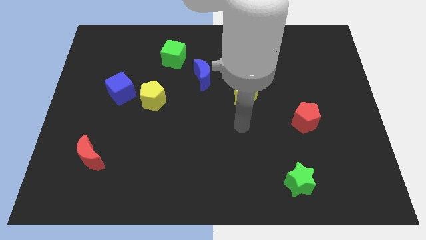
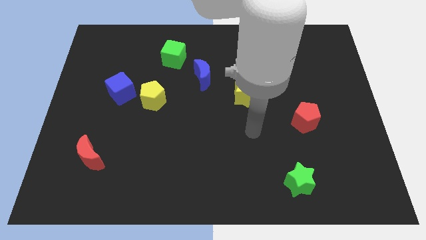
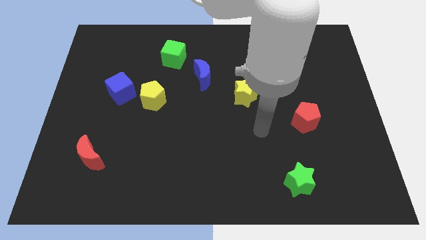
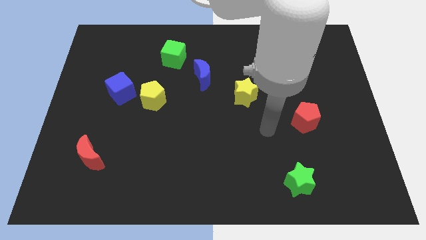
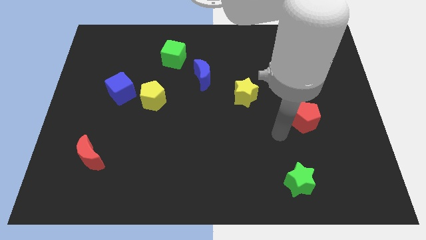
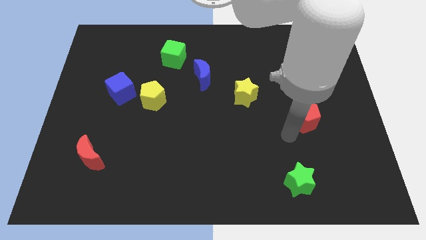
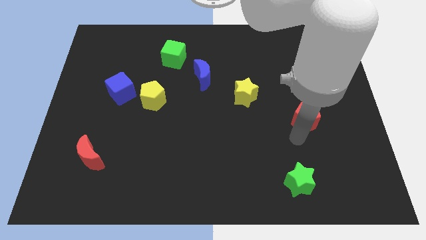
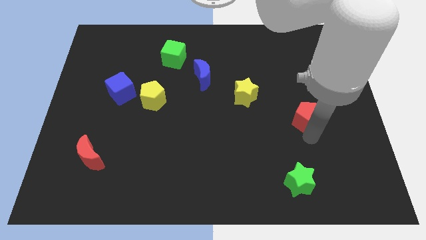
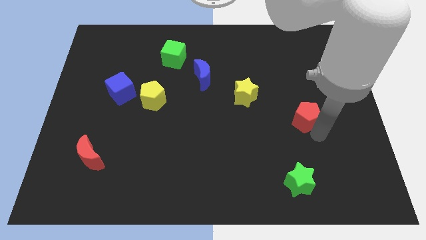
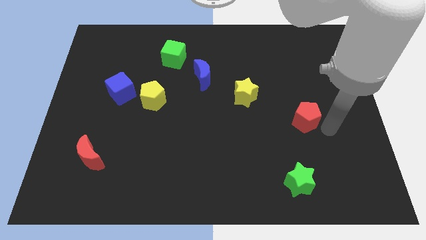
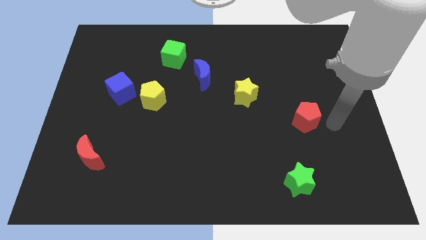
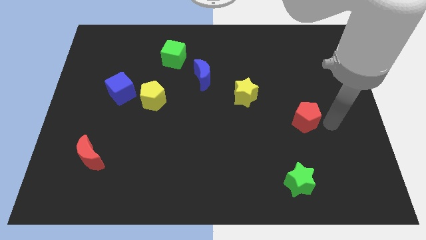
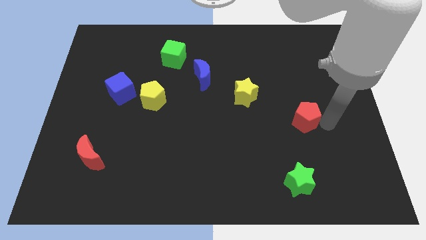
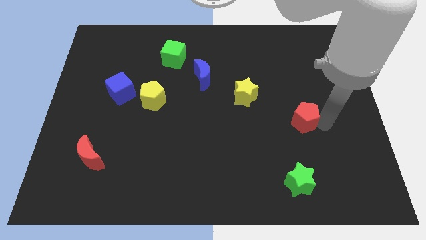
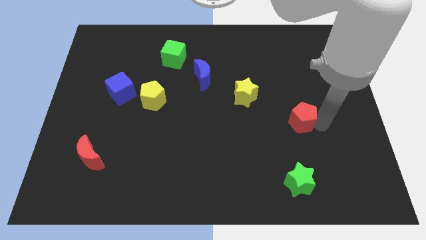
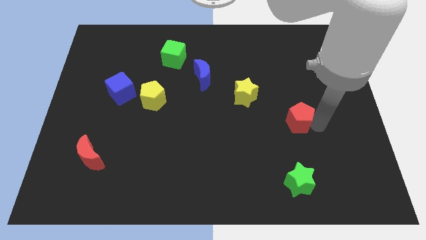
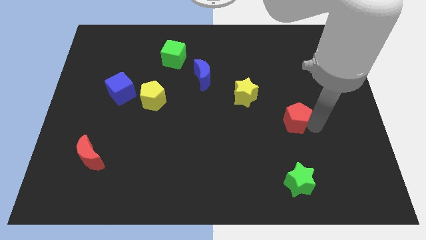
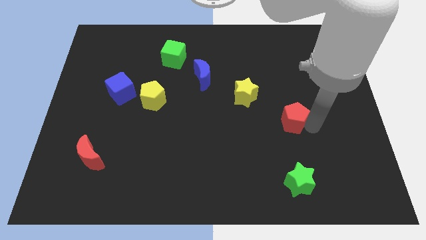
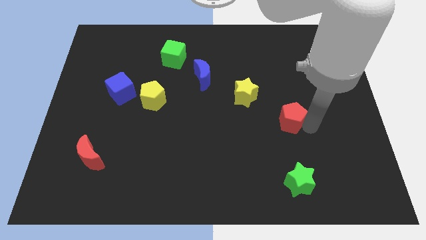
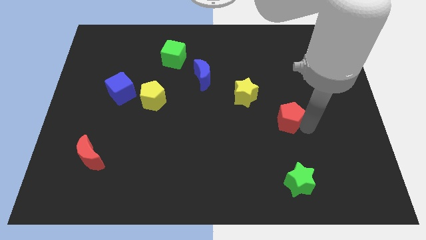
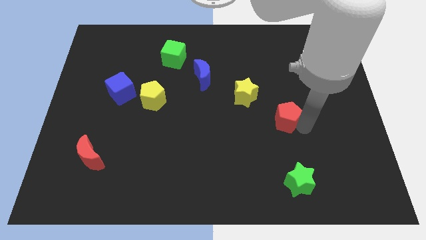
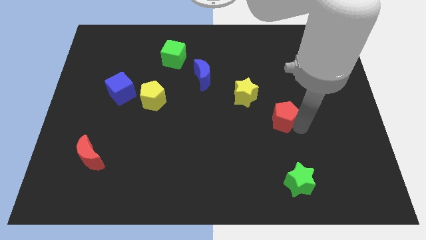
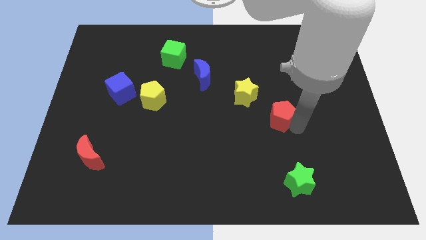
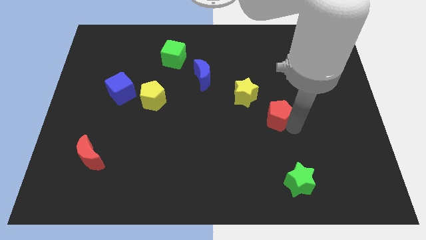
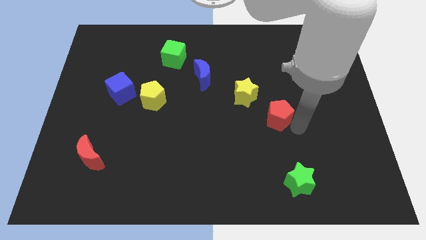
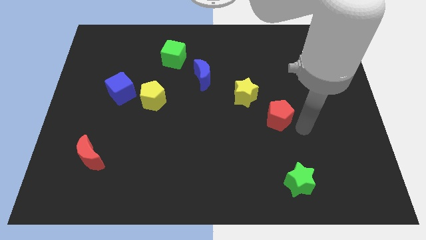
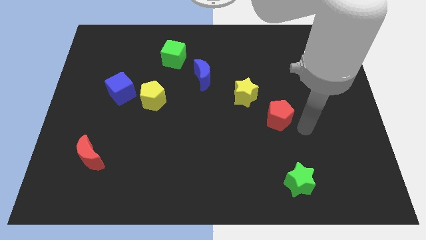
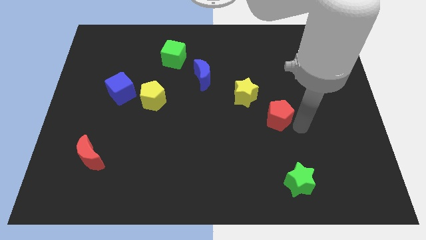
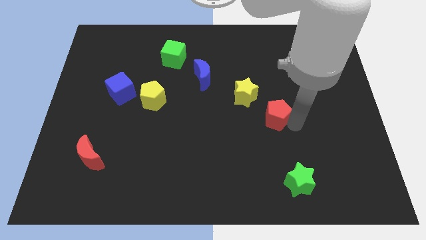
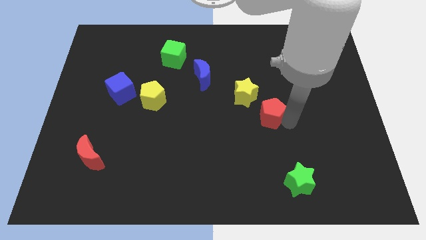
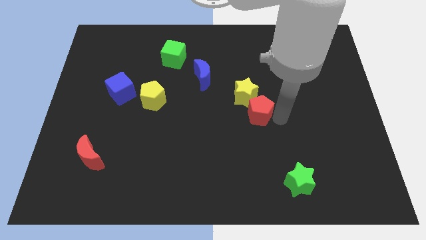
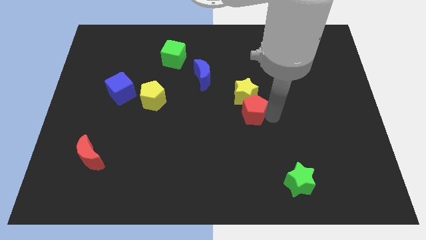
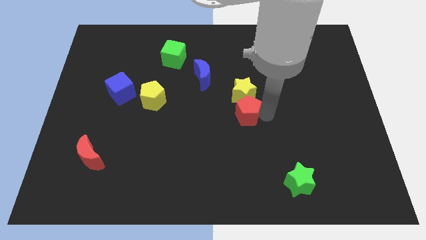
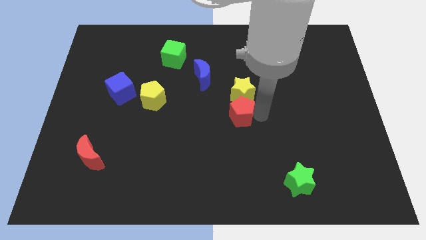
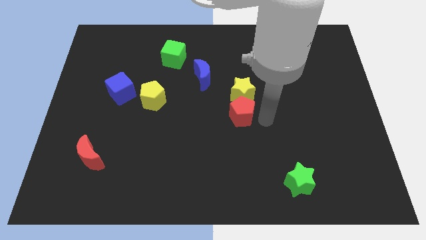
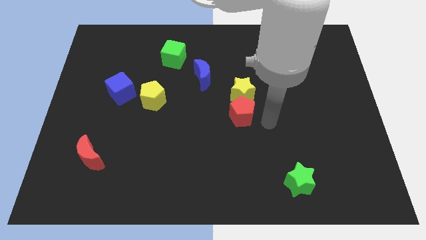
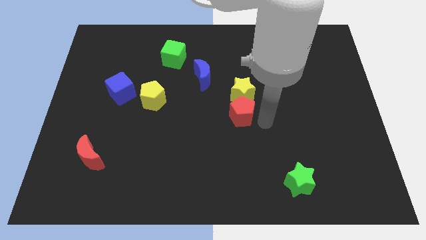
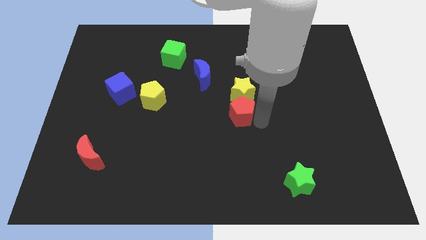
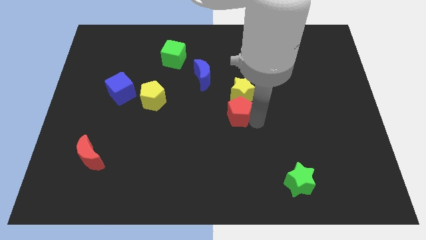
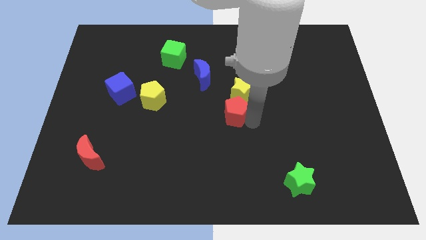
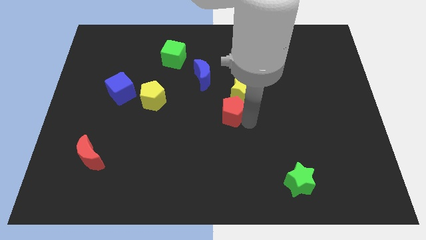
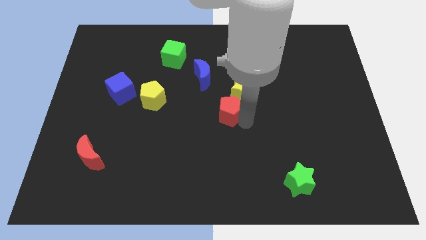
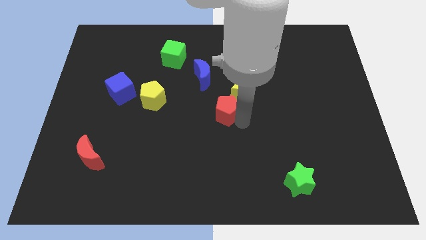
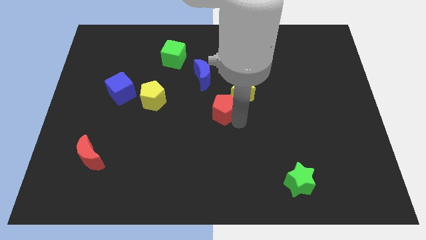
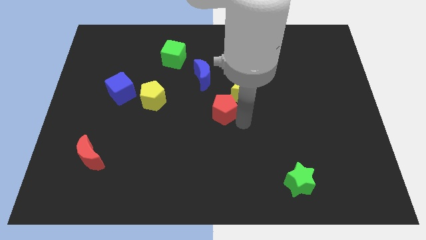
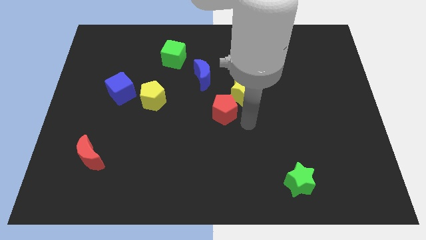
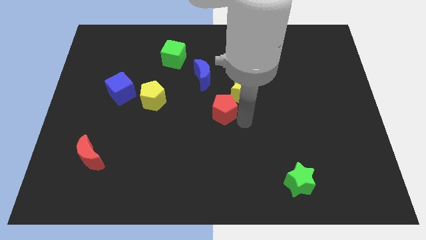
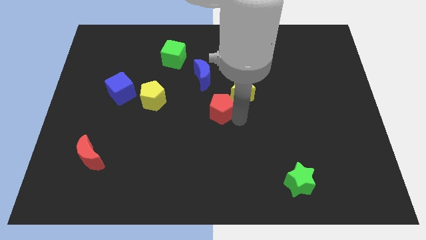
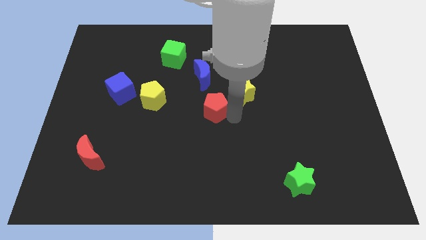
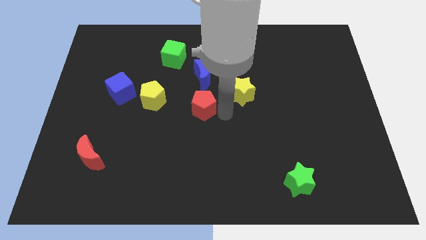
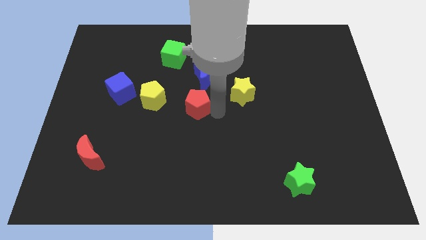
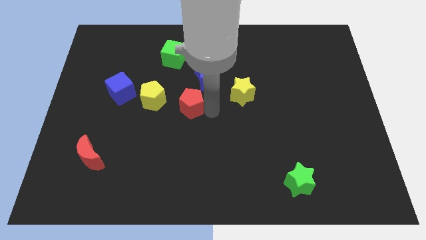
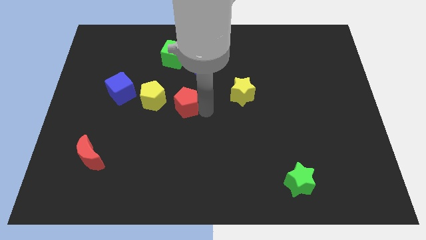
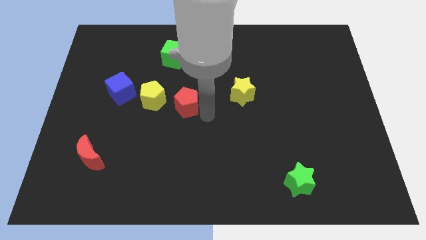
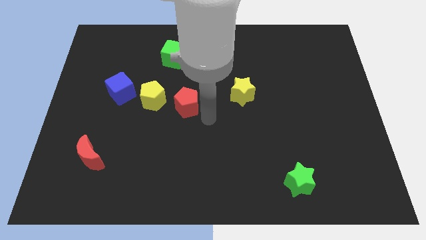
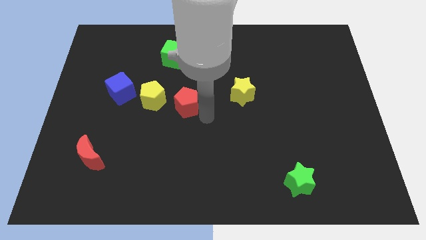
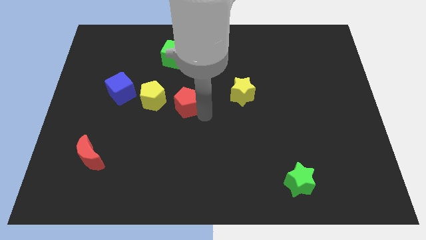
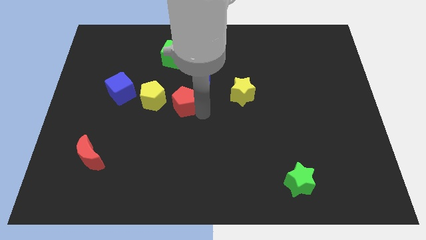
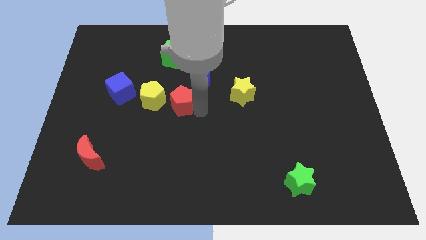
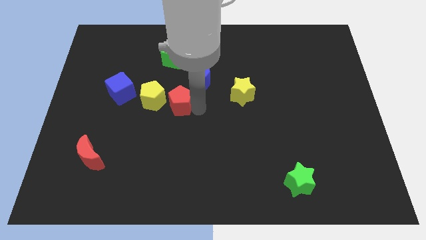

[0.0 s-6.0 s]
push the red pentagon right of the blue cube
